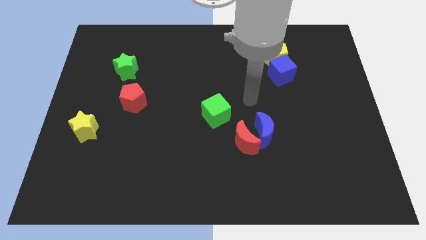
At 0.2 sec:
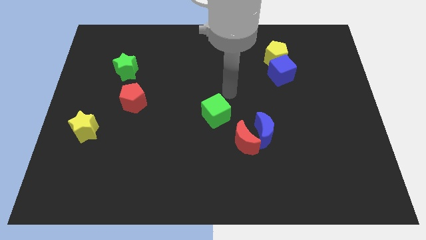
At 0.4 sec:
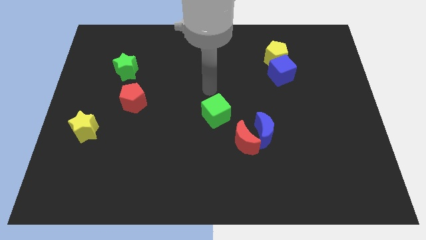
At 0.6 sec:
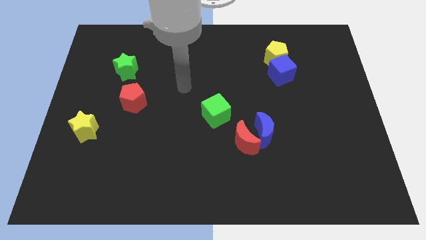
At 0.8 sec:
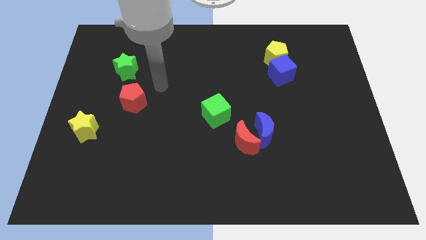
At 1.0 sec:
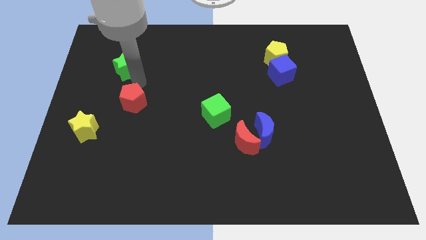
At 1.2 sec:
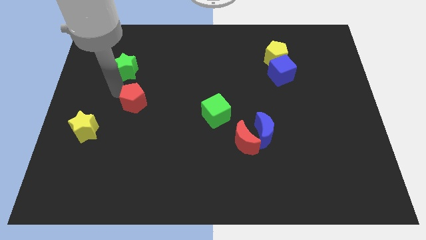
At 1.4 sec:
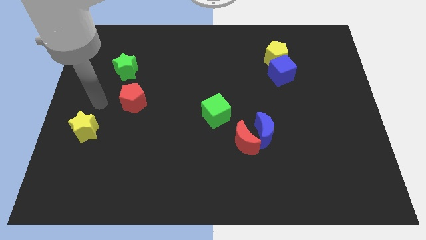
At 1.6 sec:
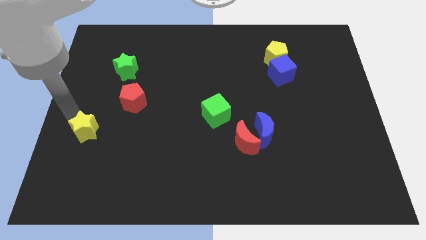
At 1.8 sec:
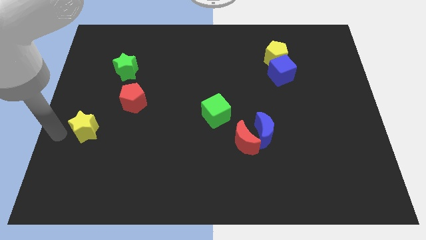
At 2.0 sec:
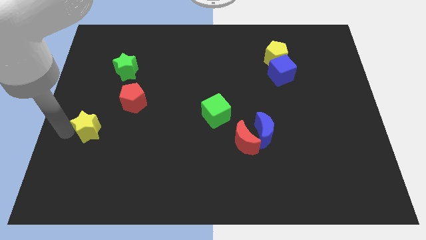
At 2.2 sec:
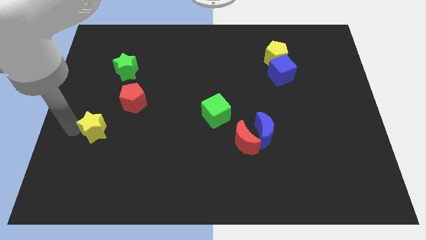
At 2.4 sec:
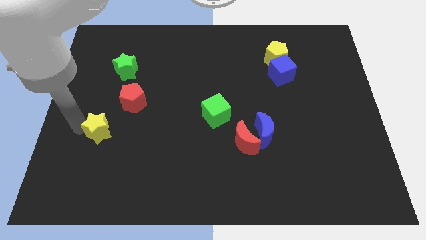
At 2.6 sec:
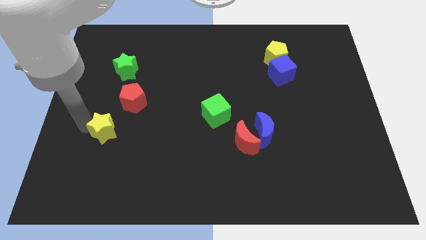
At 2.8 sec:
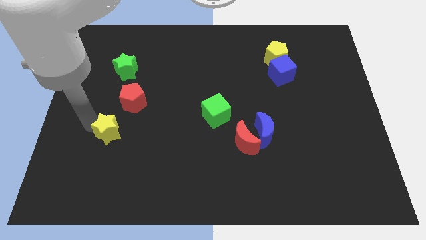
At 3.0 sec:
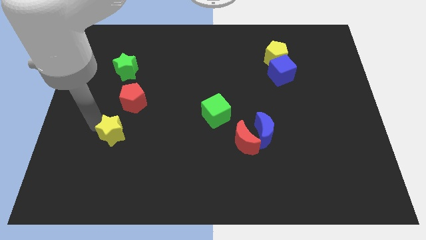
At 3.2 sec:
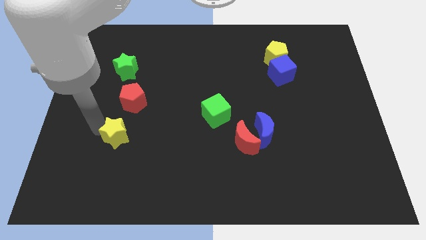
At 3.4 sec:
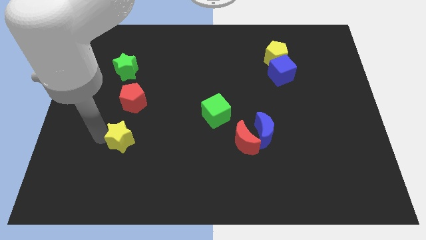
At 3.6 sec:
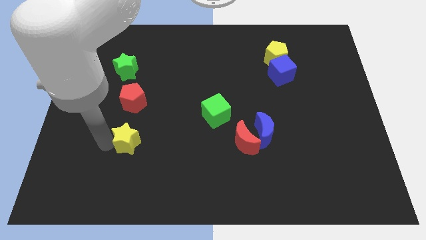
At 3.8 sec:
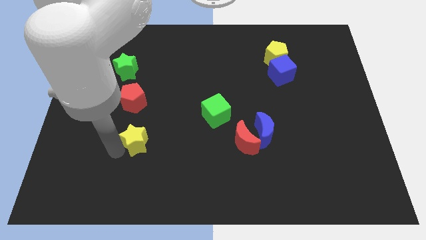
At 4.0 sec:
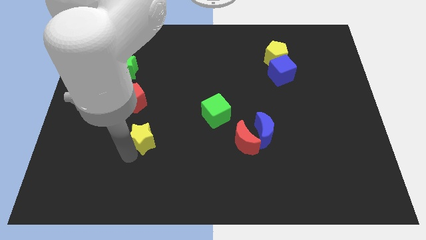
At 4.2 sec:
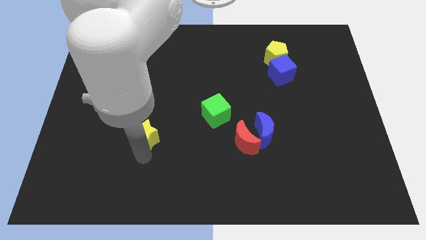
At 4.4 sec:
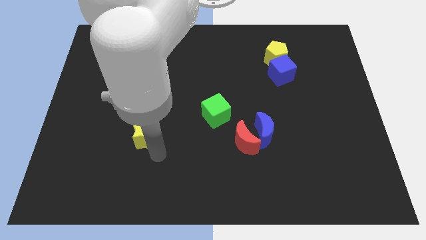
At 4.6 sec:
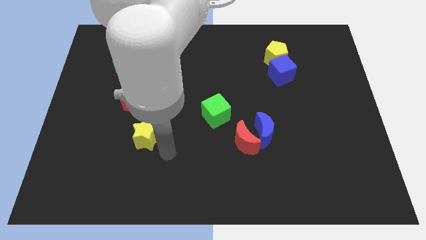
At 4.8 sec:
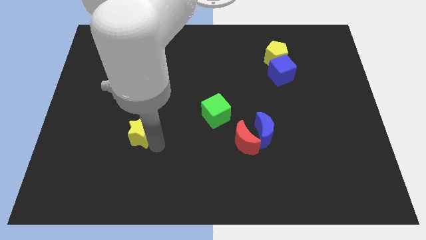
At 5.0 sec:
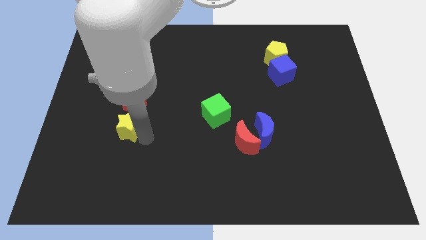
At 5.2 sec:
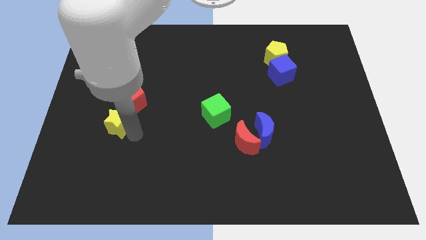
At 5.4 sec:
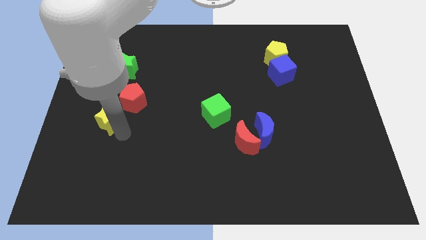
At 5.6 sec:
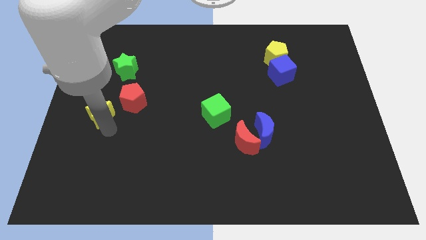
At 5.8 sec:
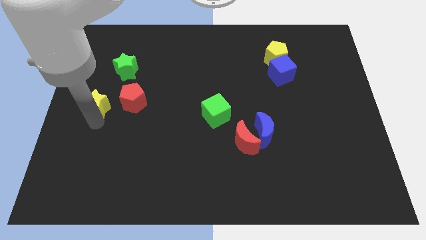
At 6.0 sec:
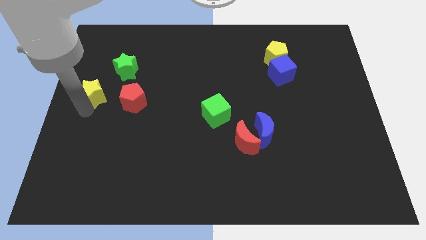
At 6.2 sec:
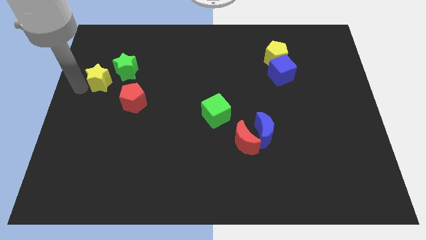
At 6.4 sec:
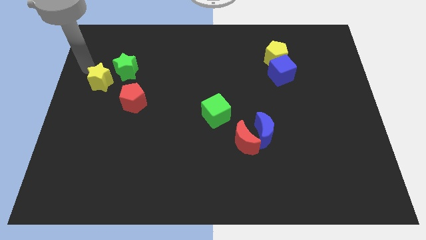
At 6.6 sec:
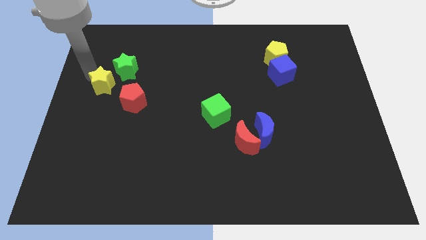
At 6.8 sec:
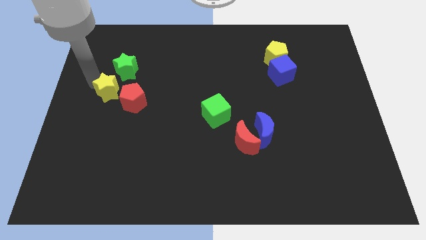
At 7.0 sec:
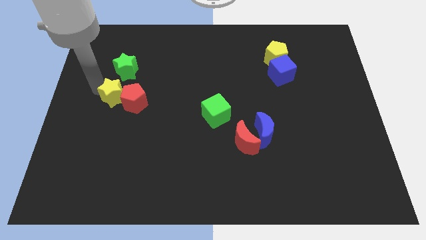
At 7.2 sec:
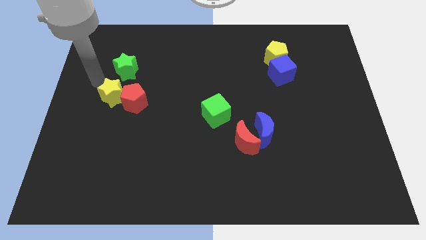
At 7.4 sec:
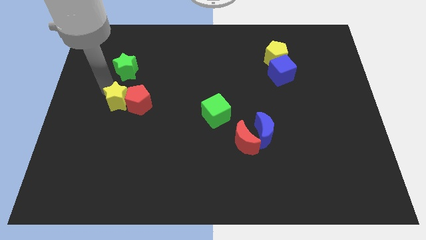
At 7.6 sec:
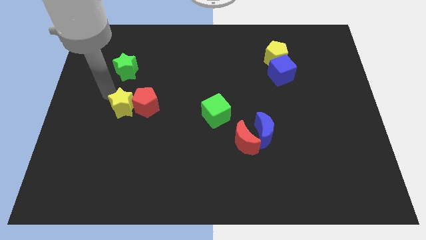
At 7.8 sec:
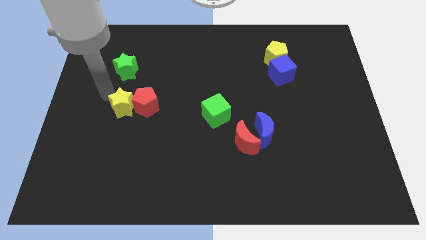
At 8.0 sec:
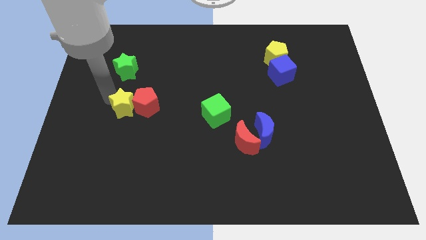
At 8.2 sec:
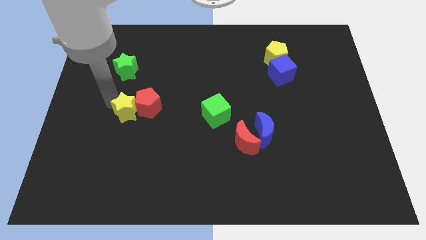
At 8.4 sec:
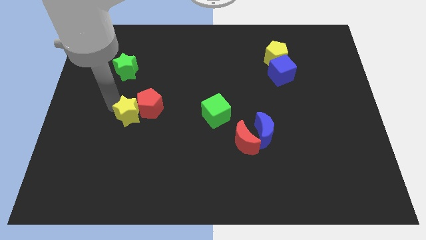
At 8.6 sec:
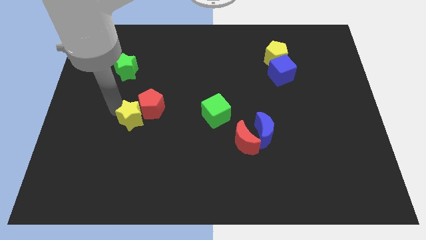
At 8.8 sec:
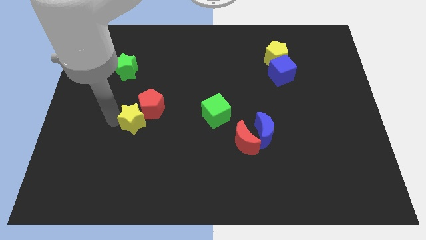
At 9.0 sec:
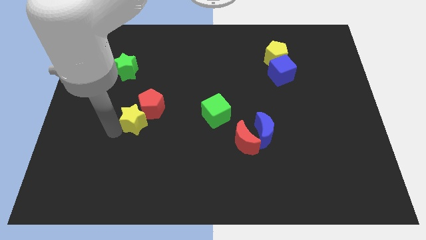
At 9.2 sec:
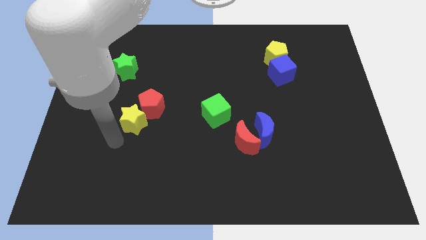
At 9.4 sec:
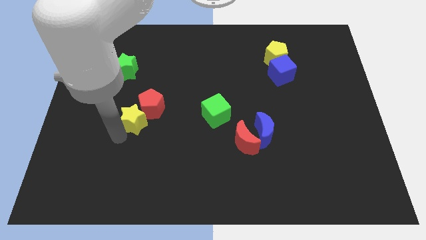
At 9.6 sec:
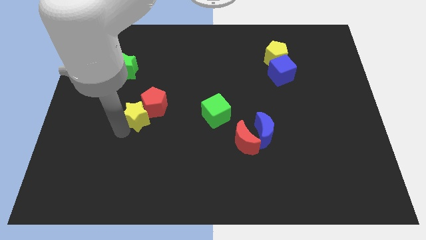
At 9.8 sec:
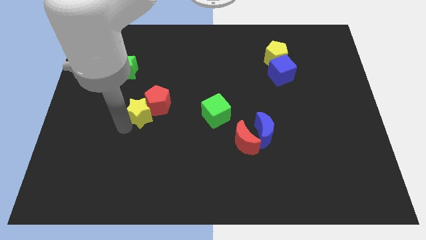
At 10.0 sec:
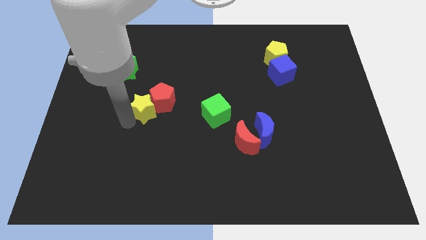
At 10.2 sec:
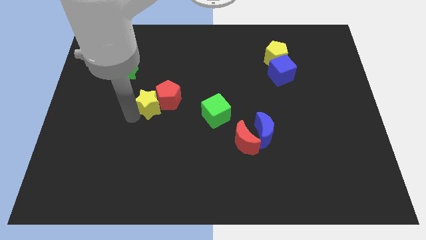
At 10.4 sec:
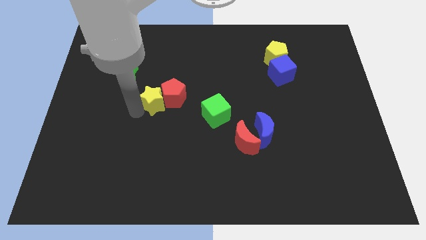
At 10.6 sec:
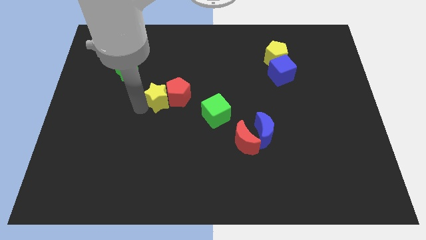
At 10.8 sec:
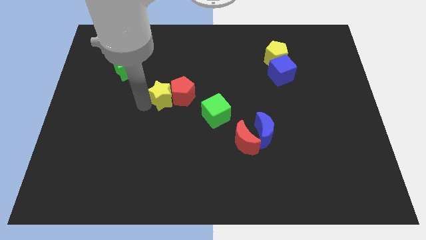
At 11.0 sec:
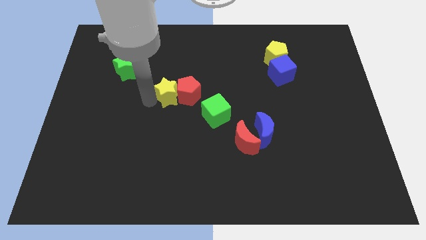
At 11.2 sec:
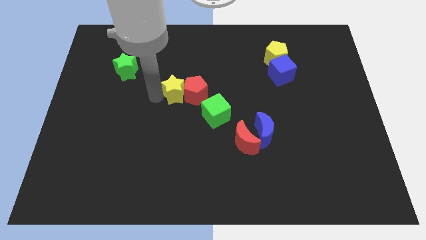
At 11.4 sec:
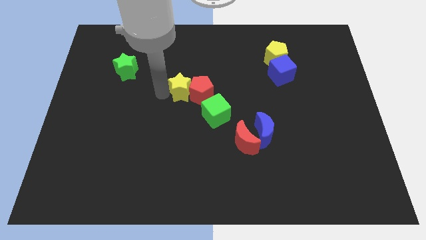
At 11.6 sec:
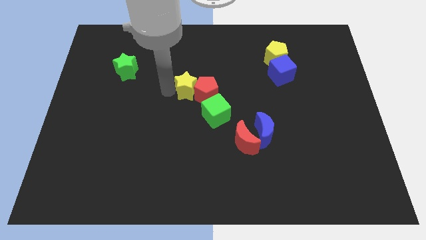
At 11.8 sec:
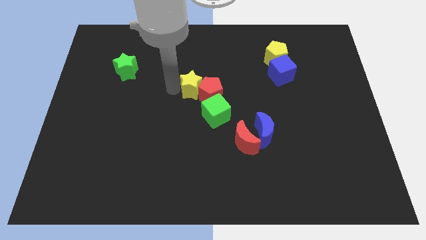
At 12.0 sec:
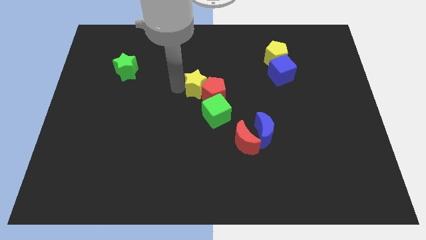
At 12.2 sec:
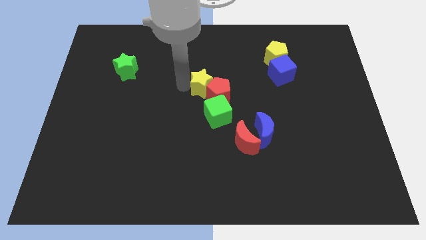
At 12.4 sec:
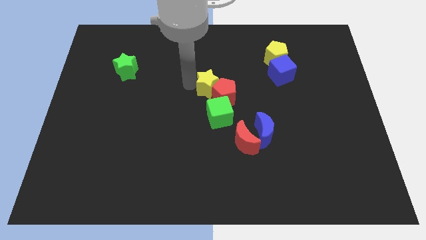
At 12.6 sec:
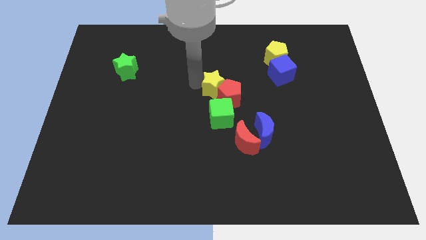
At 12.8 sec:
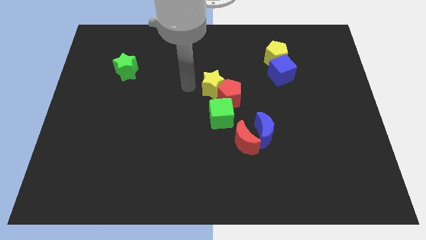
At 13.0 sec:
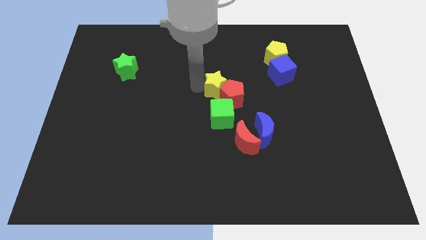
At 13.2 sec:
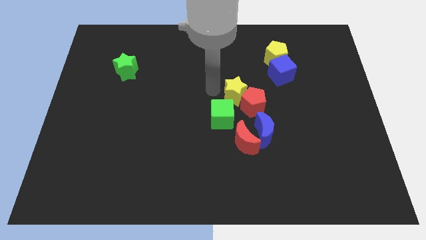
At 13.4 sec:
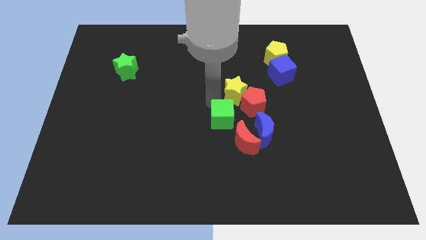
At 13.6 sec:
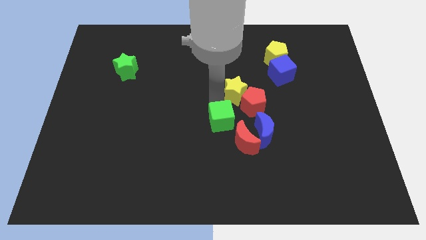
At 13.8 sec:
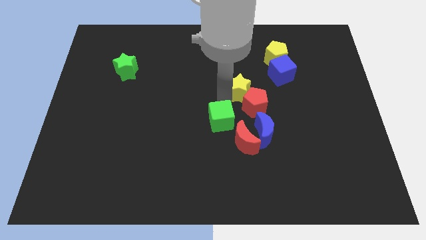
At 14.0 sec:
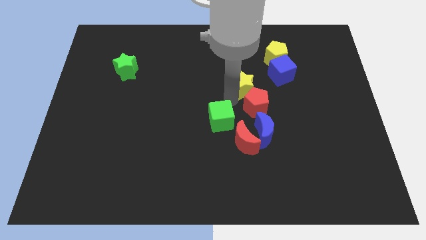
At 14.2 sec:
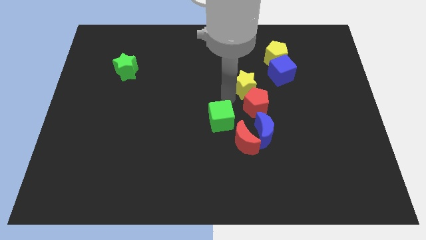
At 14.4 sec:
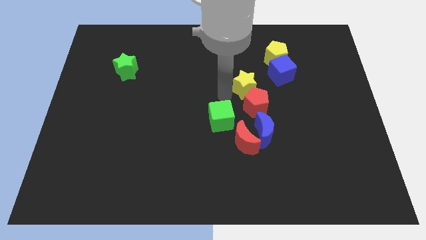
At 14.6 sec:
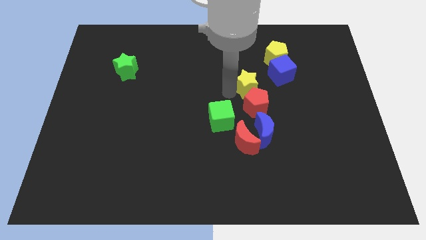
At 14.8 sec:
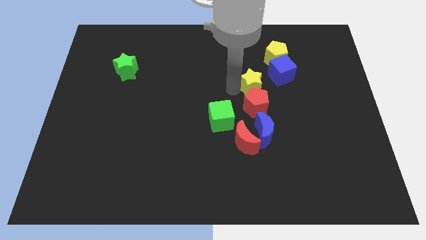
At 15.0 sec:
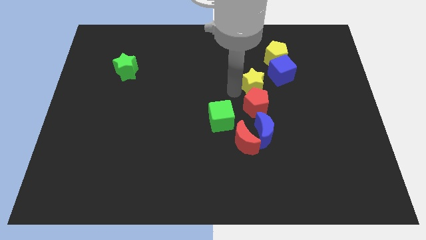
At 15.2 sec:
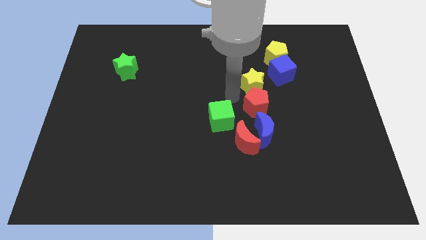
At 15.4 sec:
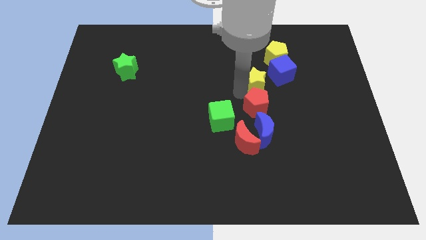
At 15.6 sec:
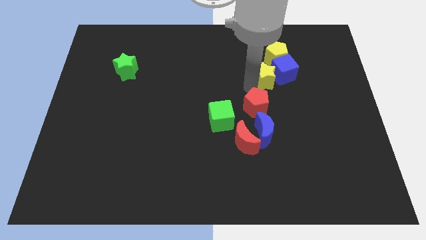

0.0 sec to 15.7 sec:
put the yellow star to the blue cube
